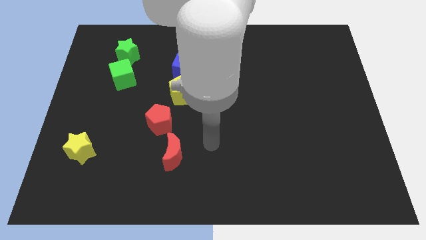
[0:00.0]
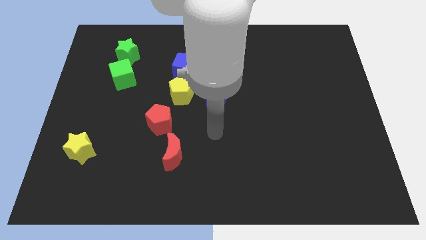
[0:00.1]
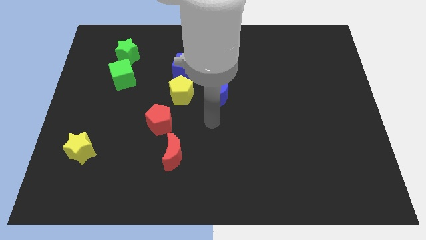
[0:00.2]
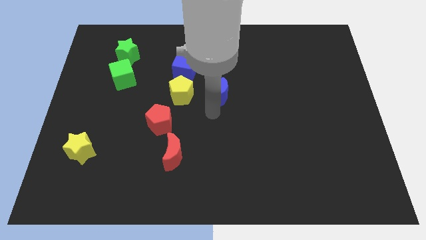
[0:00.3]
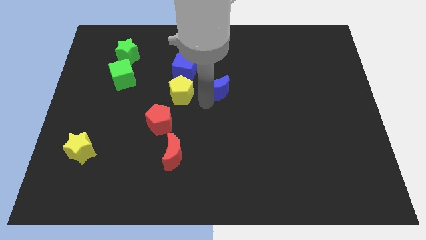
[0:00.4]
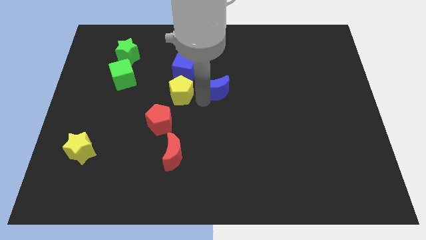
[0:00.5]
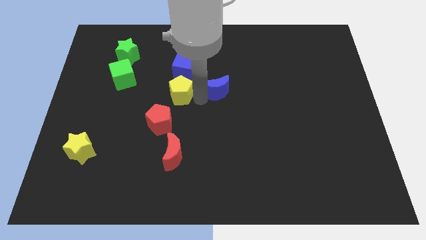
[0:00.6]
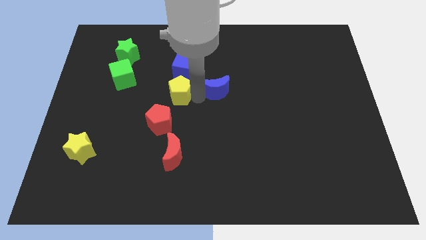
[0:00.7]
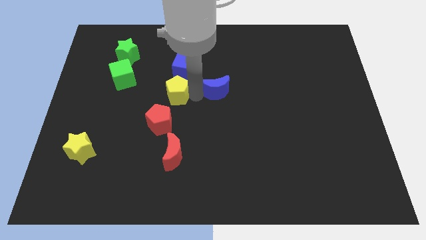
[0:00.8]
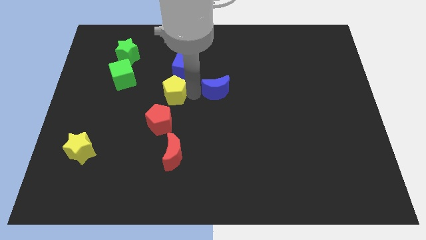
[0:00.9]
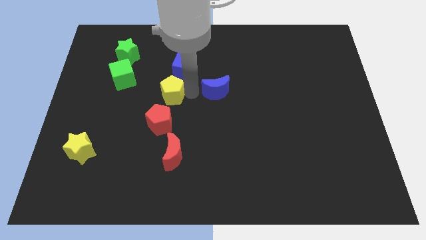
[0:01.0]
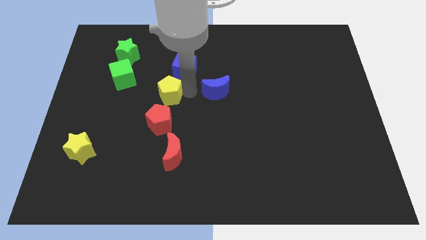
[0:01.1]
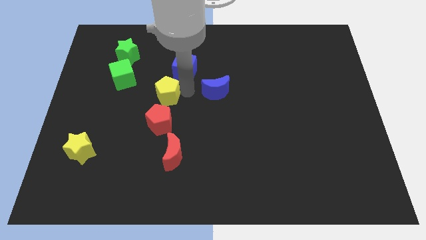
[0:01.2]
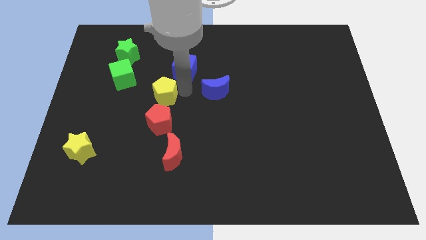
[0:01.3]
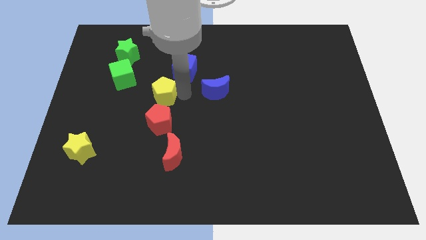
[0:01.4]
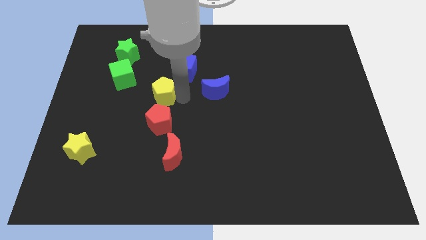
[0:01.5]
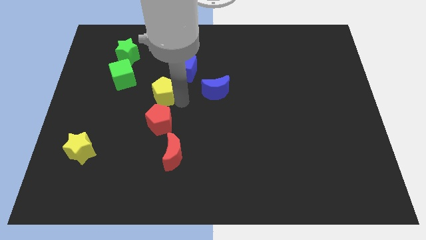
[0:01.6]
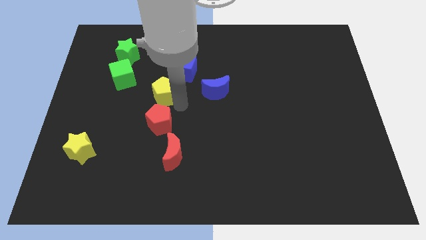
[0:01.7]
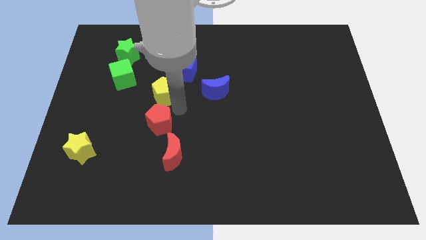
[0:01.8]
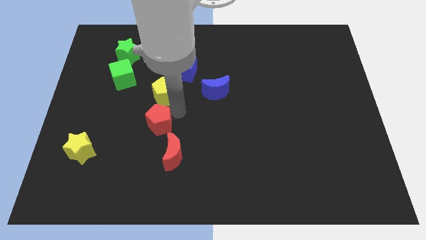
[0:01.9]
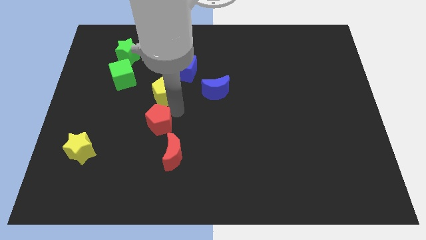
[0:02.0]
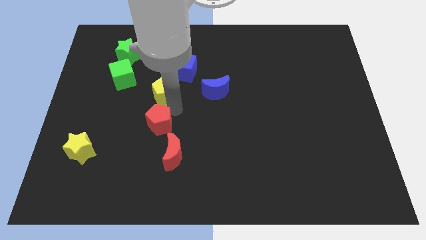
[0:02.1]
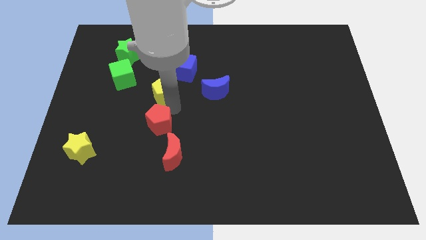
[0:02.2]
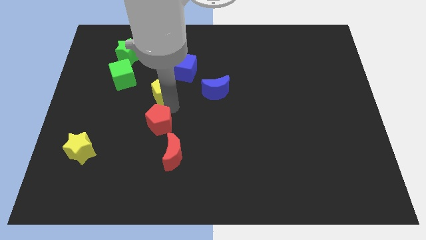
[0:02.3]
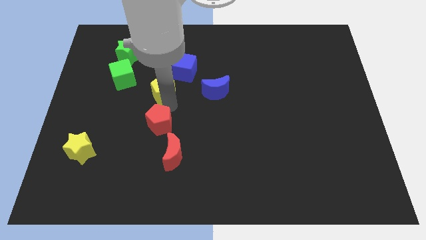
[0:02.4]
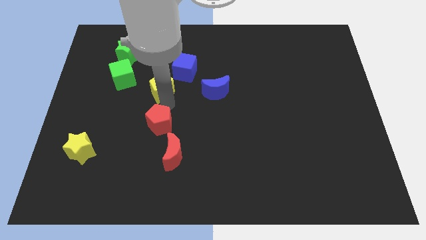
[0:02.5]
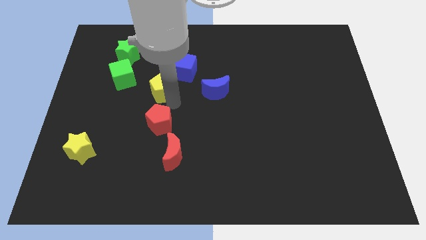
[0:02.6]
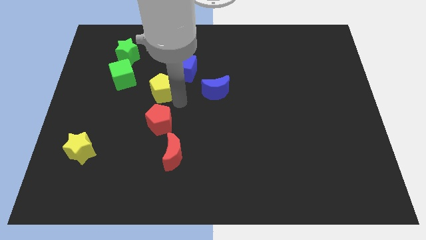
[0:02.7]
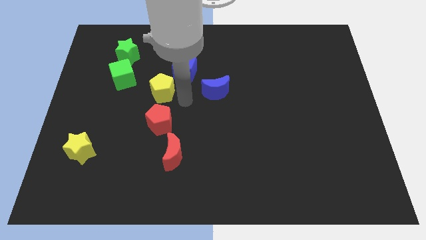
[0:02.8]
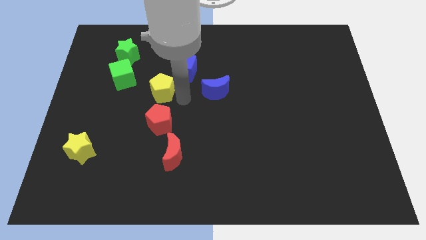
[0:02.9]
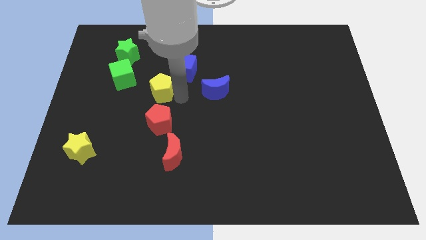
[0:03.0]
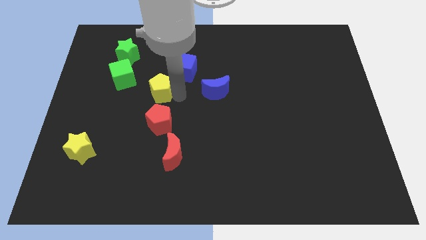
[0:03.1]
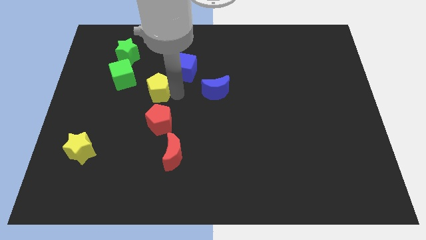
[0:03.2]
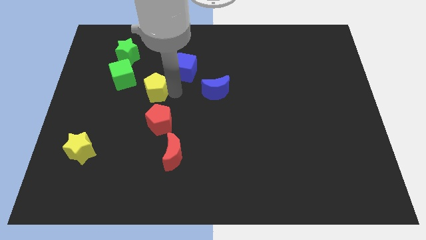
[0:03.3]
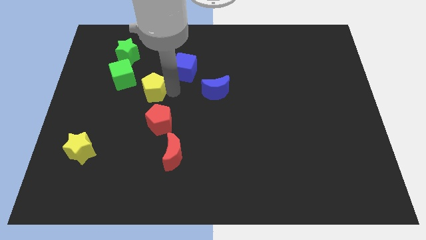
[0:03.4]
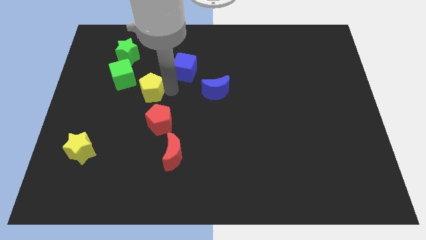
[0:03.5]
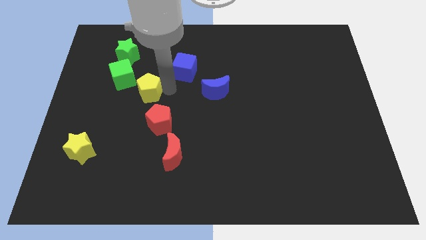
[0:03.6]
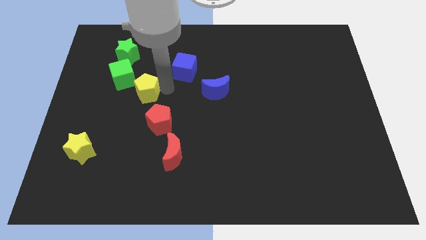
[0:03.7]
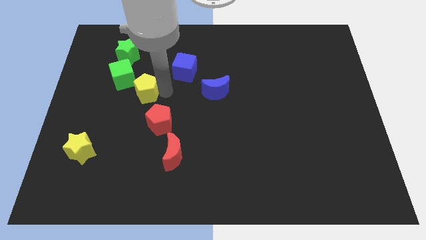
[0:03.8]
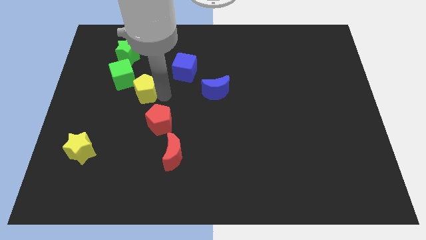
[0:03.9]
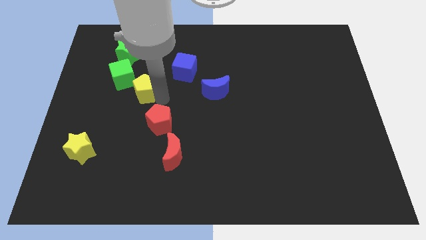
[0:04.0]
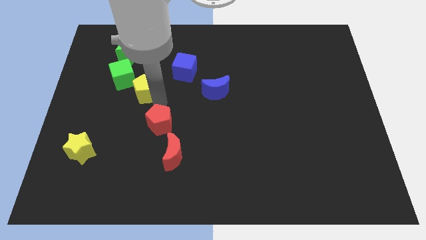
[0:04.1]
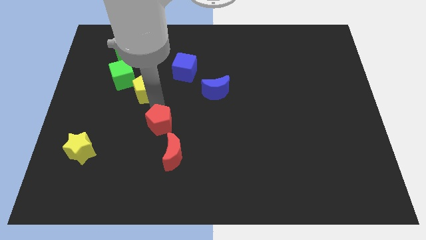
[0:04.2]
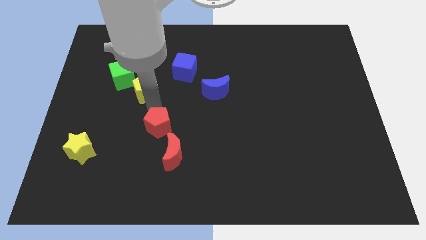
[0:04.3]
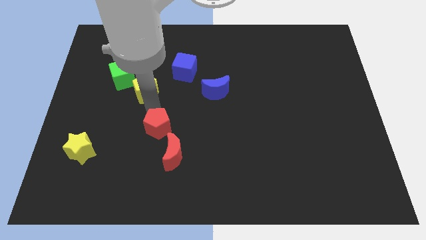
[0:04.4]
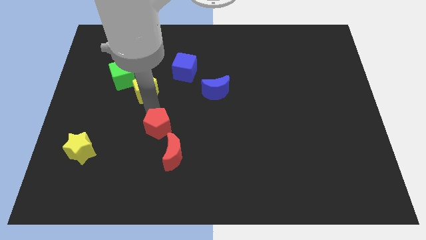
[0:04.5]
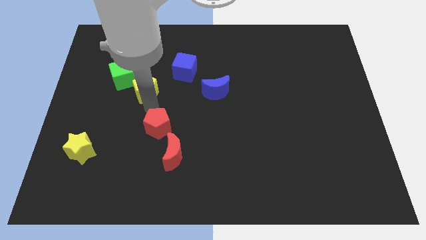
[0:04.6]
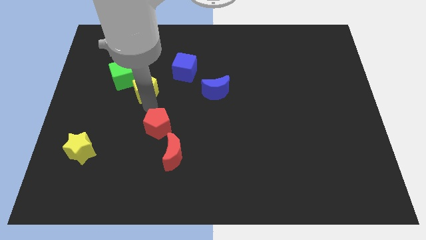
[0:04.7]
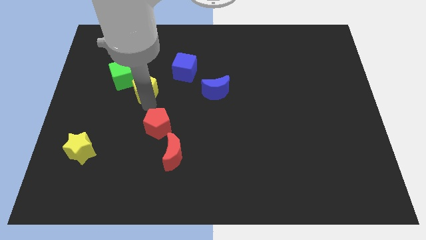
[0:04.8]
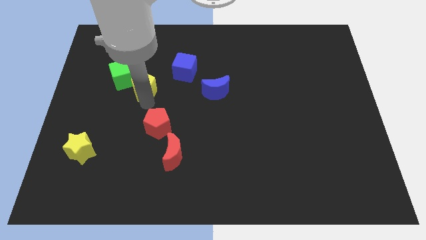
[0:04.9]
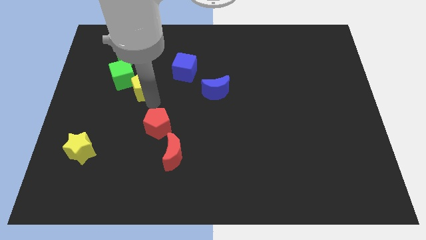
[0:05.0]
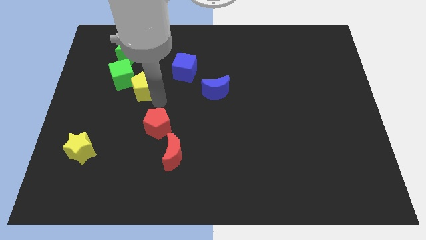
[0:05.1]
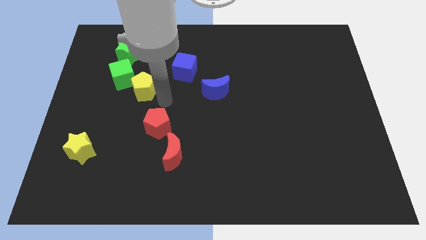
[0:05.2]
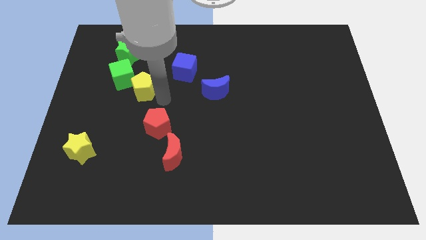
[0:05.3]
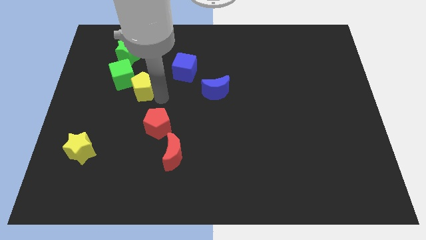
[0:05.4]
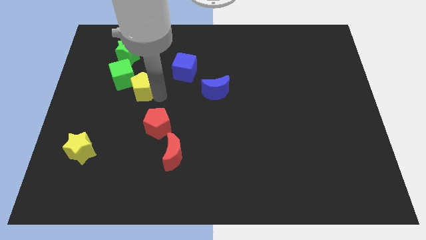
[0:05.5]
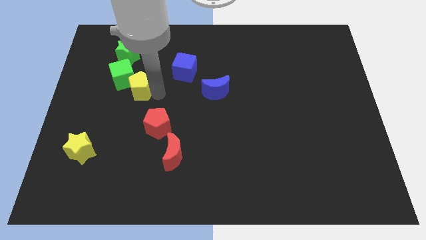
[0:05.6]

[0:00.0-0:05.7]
move the yellow pentagon next to the green cube
